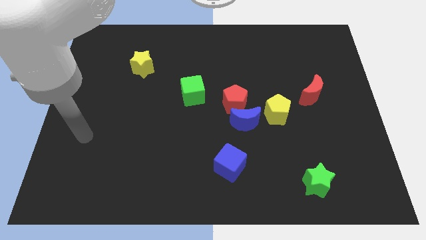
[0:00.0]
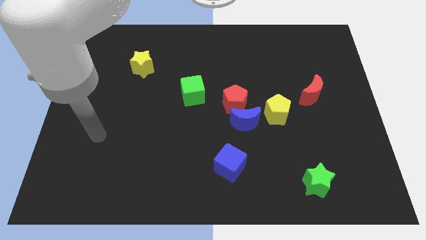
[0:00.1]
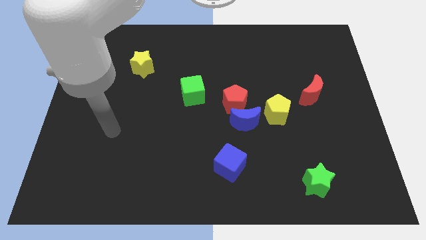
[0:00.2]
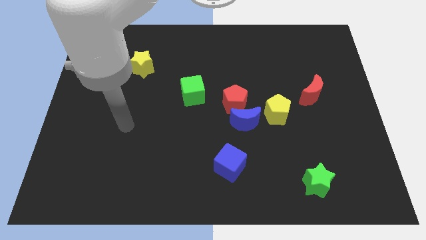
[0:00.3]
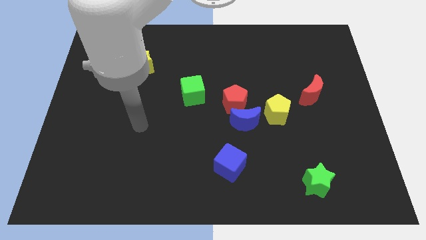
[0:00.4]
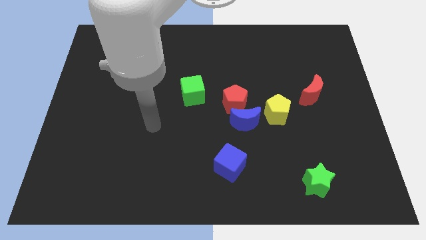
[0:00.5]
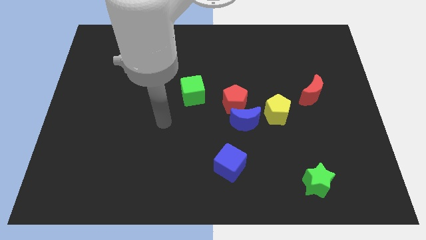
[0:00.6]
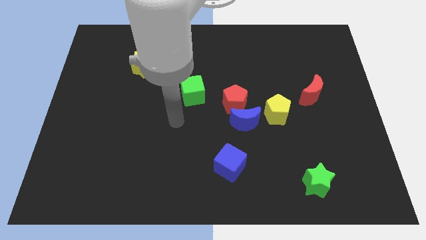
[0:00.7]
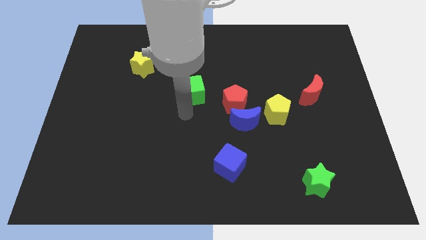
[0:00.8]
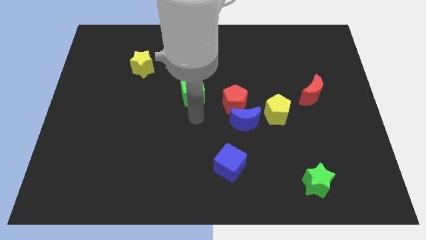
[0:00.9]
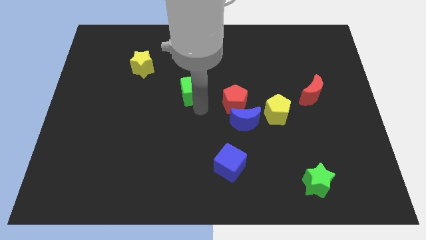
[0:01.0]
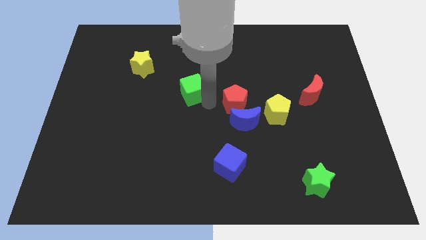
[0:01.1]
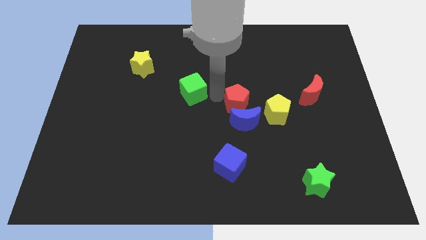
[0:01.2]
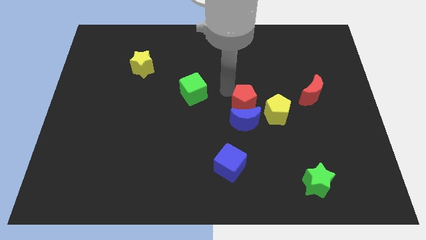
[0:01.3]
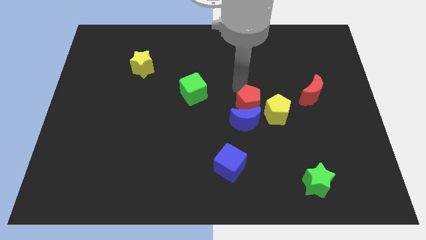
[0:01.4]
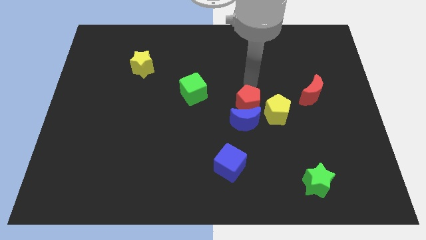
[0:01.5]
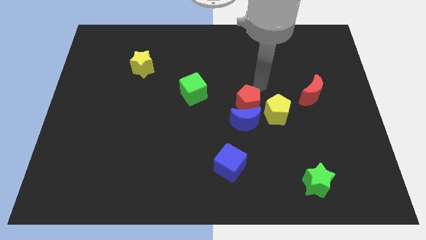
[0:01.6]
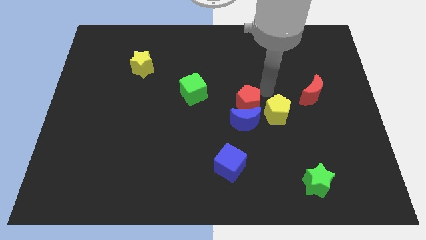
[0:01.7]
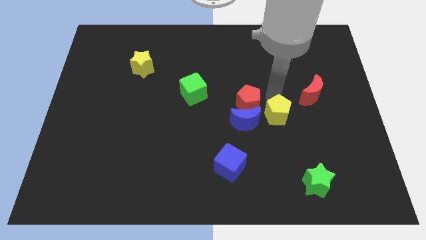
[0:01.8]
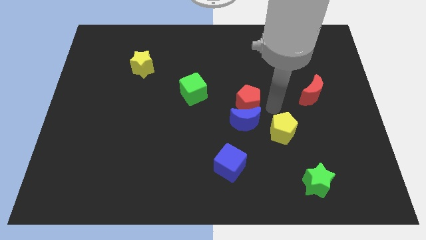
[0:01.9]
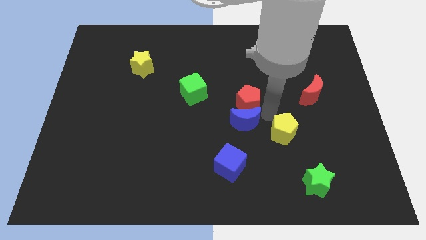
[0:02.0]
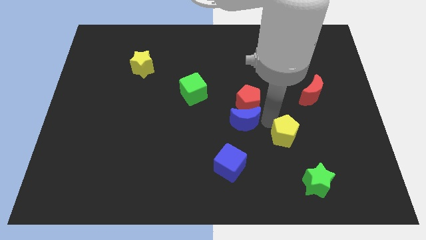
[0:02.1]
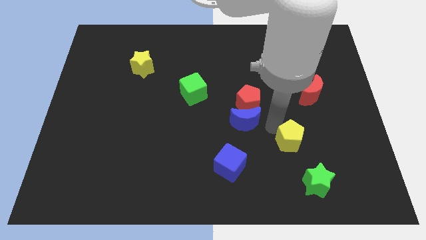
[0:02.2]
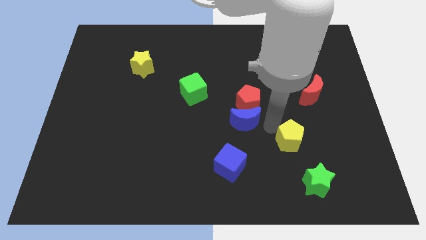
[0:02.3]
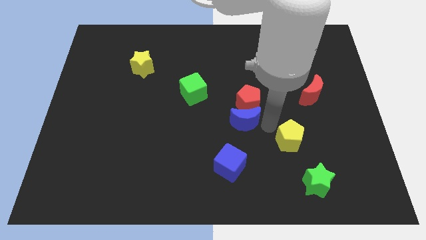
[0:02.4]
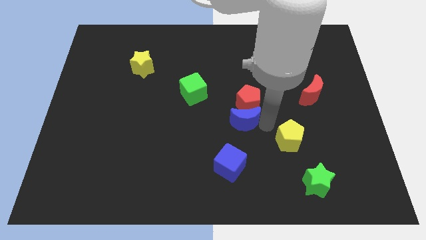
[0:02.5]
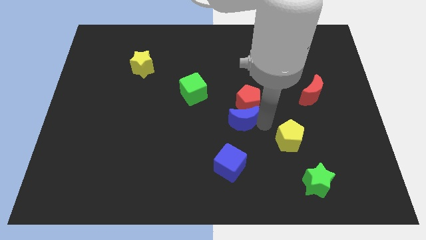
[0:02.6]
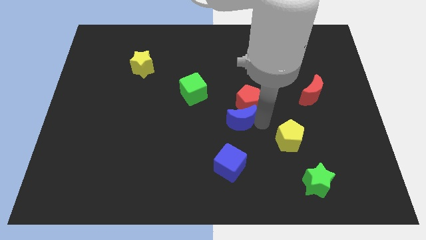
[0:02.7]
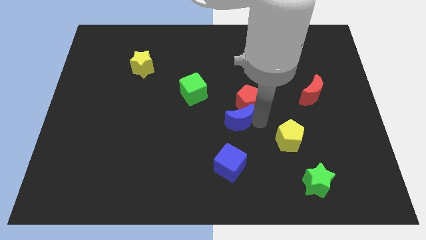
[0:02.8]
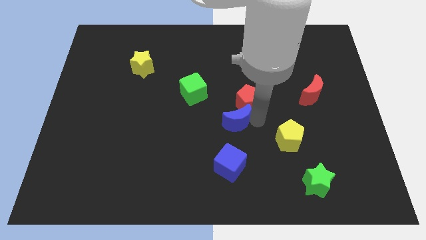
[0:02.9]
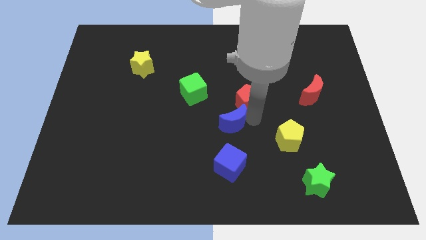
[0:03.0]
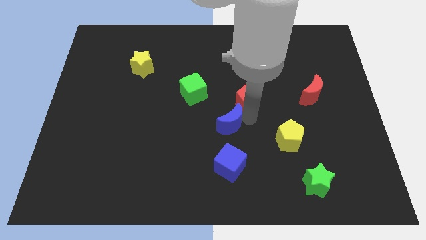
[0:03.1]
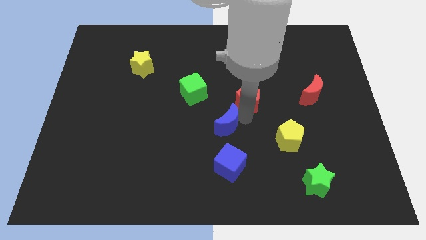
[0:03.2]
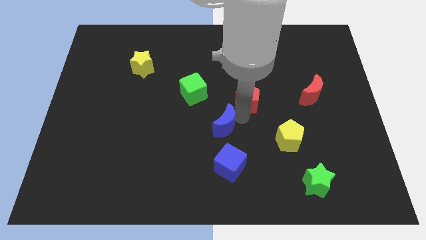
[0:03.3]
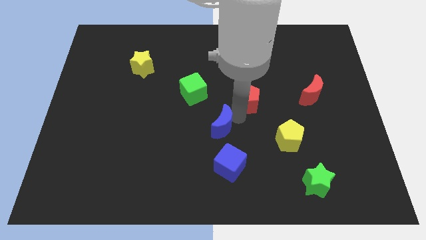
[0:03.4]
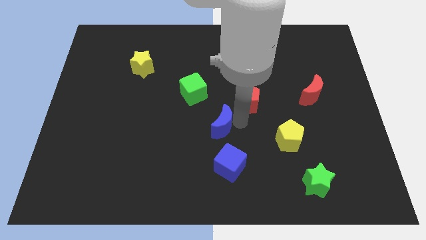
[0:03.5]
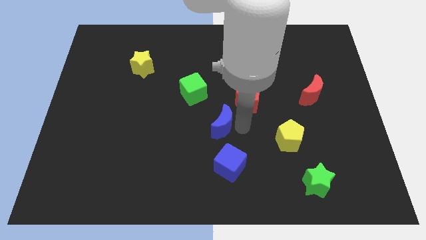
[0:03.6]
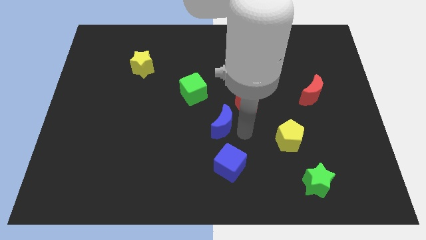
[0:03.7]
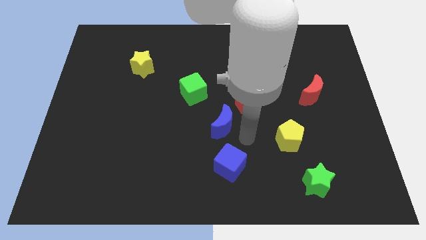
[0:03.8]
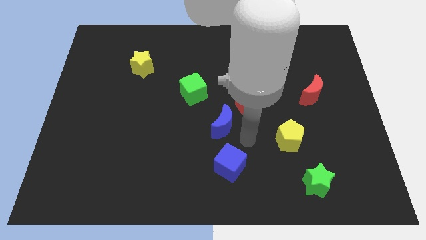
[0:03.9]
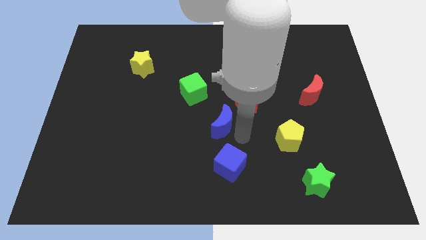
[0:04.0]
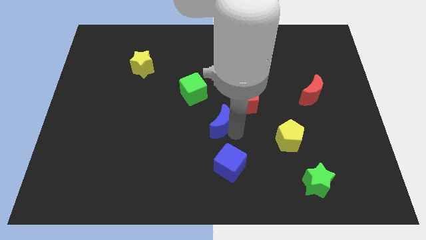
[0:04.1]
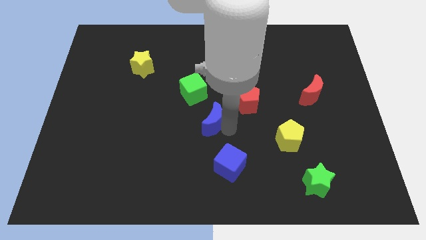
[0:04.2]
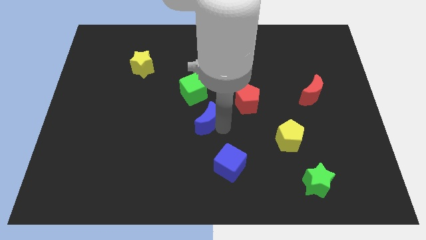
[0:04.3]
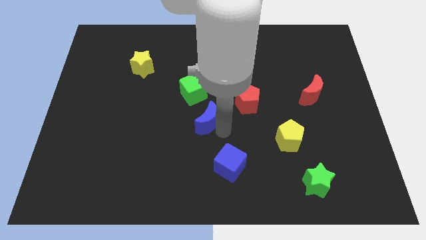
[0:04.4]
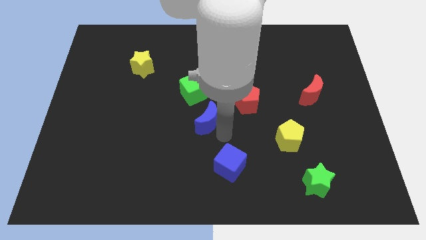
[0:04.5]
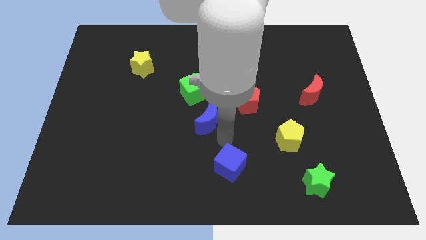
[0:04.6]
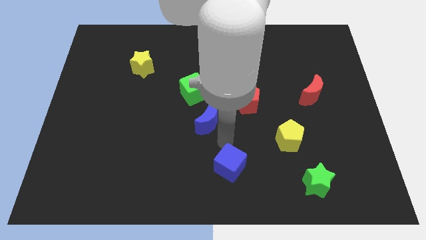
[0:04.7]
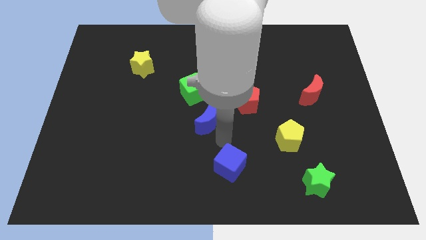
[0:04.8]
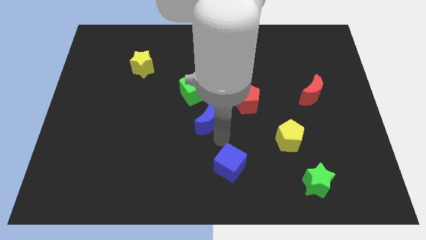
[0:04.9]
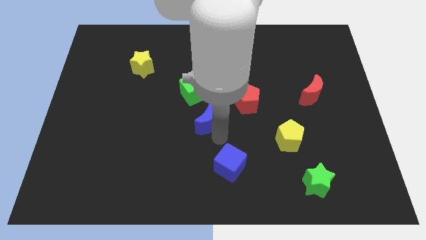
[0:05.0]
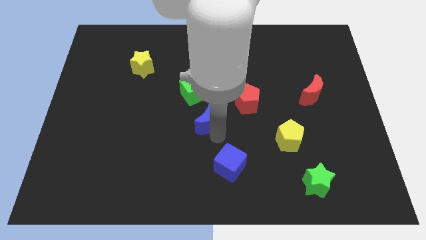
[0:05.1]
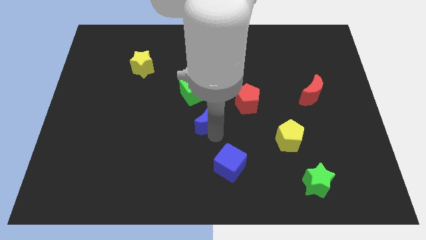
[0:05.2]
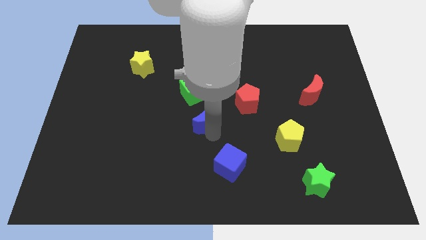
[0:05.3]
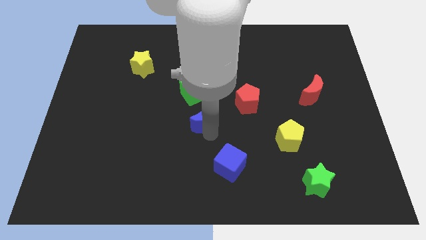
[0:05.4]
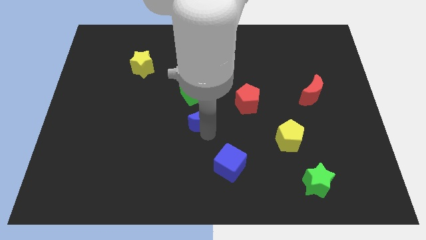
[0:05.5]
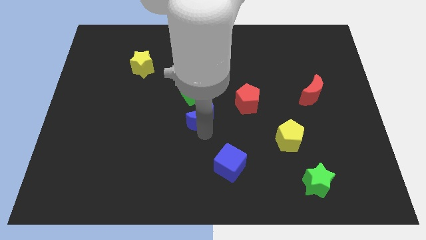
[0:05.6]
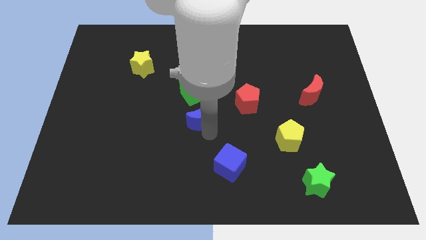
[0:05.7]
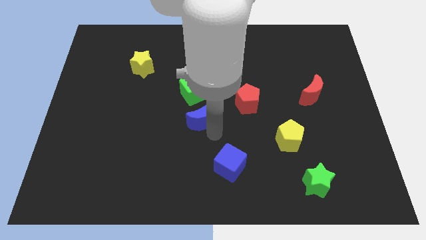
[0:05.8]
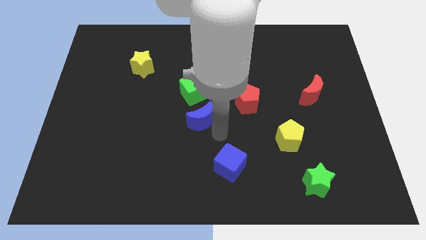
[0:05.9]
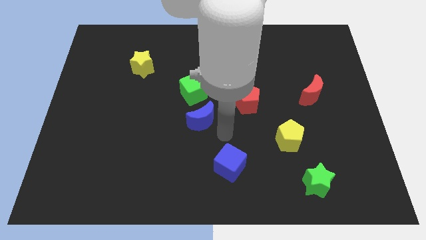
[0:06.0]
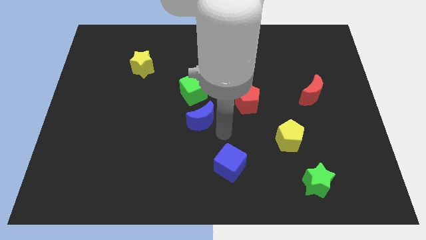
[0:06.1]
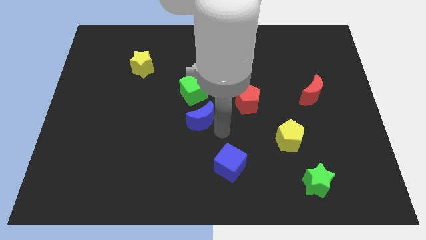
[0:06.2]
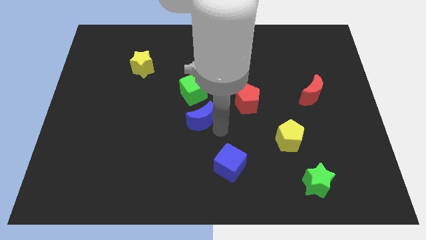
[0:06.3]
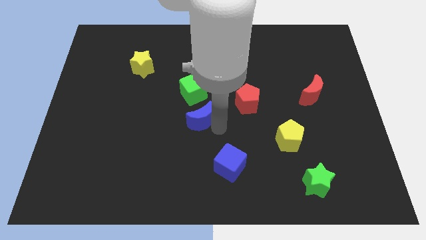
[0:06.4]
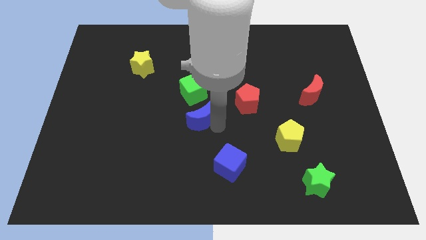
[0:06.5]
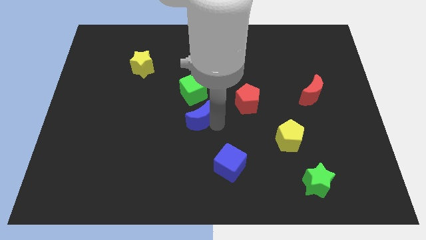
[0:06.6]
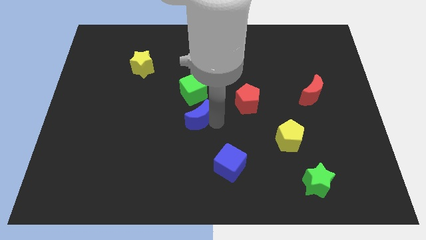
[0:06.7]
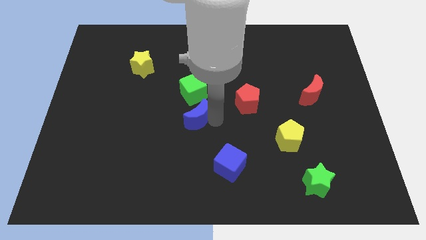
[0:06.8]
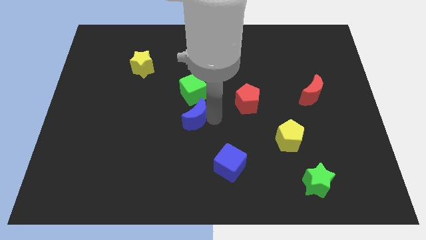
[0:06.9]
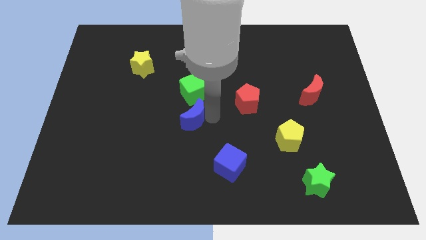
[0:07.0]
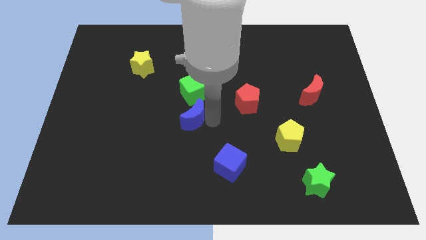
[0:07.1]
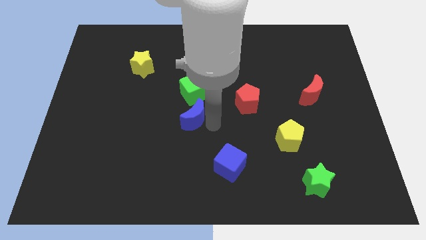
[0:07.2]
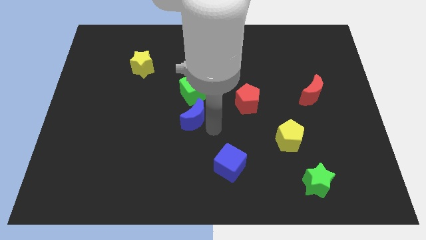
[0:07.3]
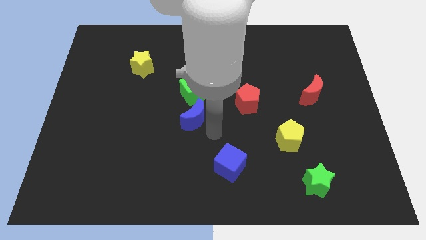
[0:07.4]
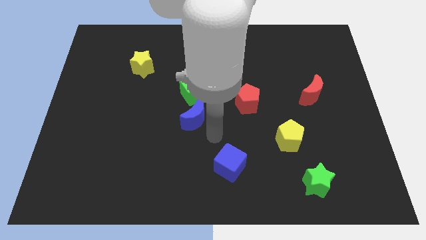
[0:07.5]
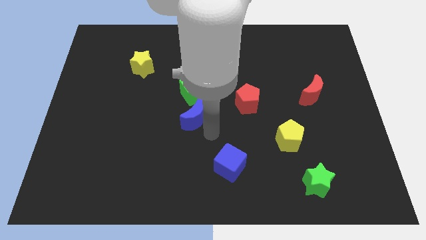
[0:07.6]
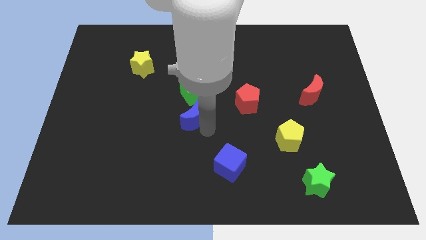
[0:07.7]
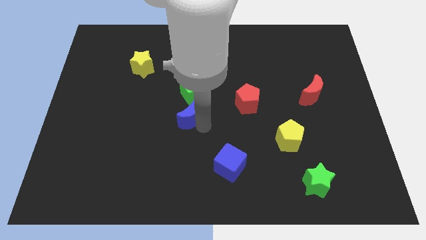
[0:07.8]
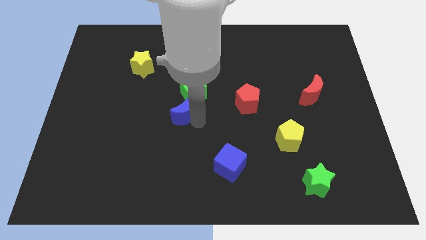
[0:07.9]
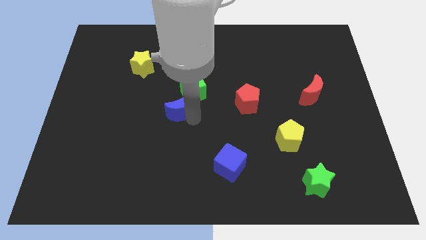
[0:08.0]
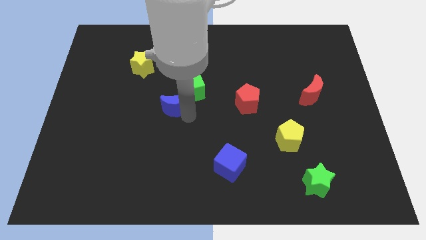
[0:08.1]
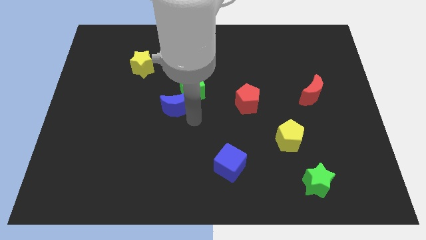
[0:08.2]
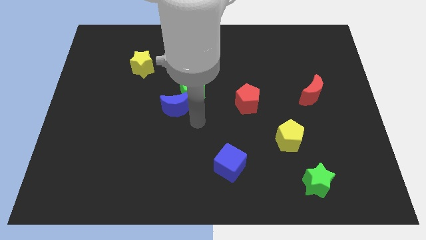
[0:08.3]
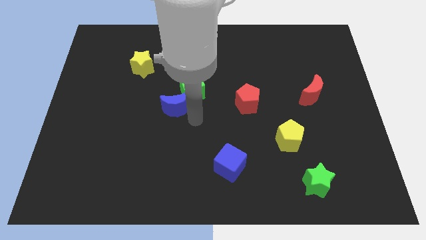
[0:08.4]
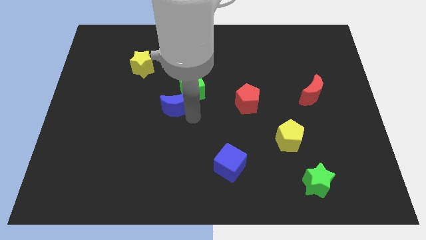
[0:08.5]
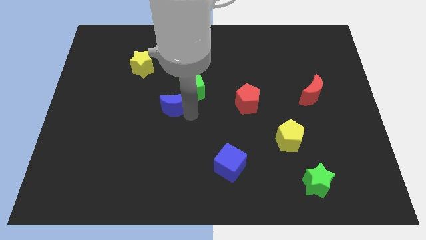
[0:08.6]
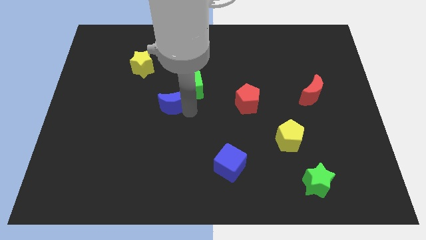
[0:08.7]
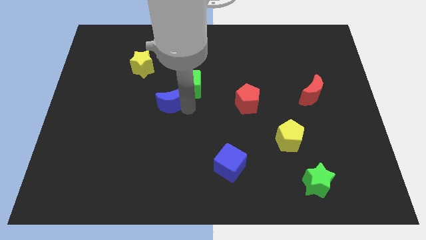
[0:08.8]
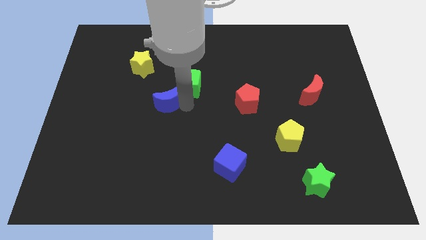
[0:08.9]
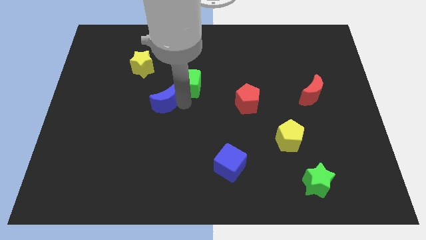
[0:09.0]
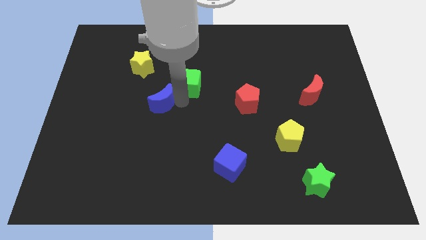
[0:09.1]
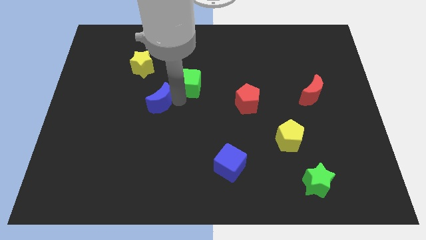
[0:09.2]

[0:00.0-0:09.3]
move the blue moon just left of the green cube
